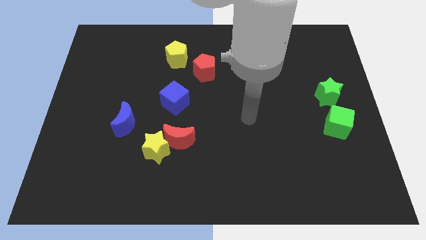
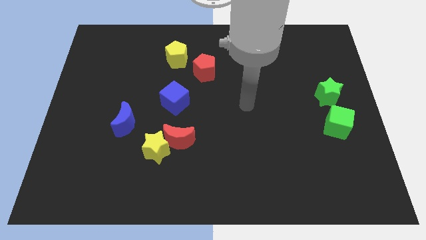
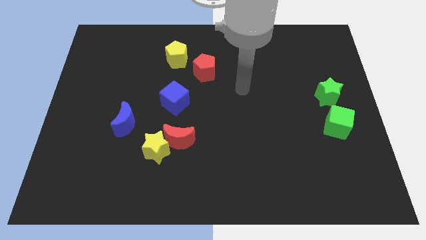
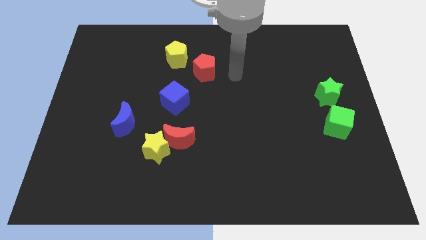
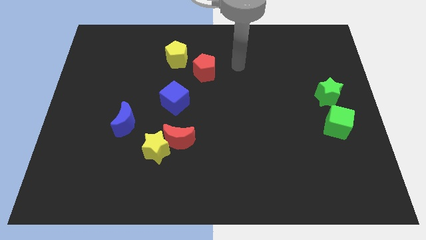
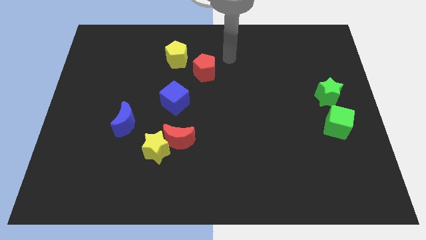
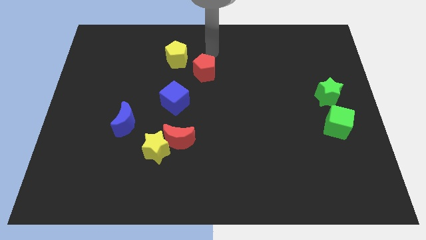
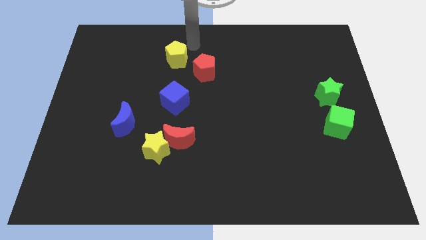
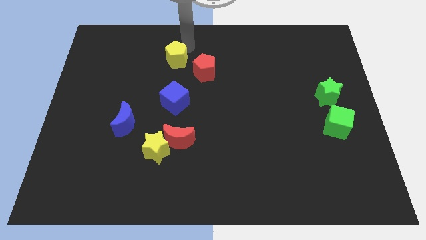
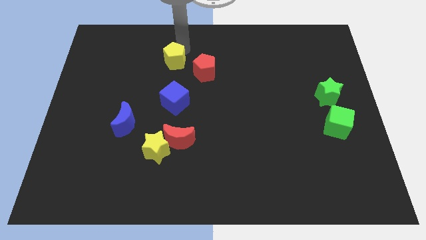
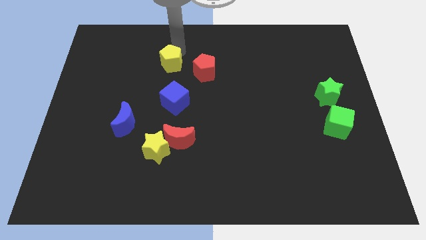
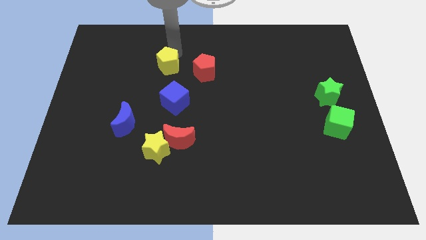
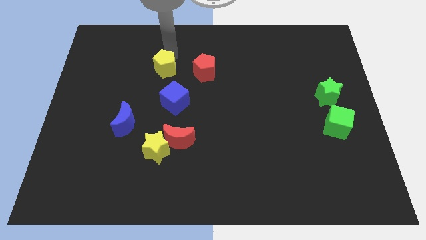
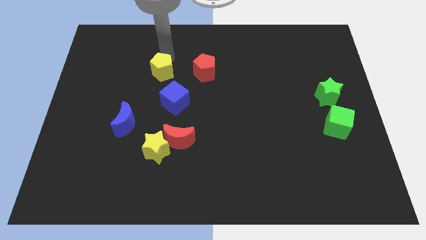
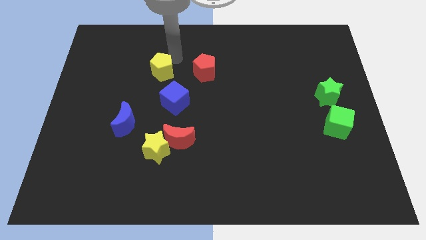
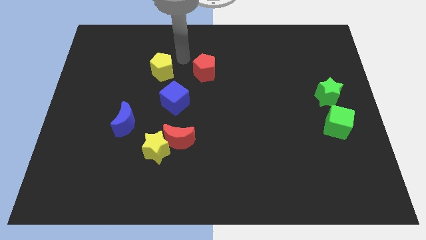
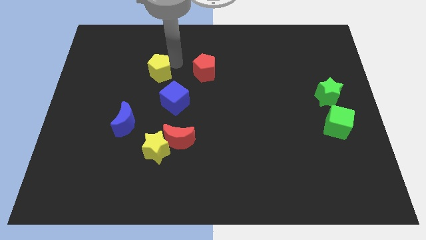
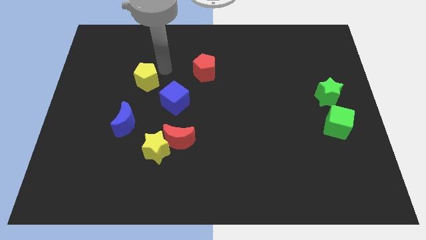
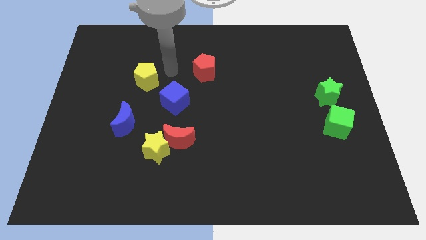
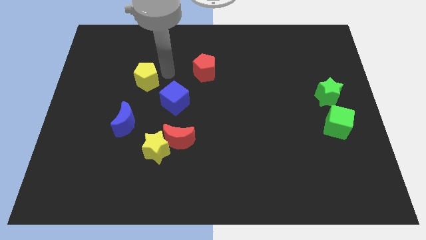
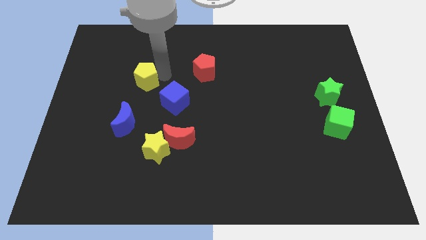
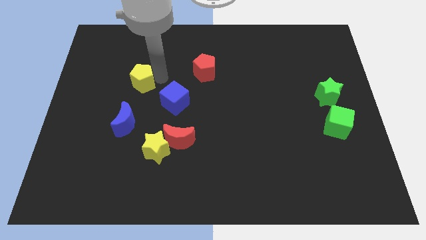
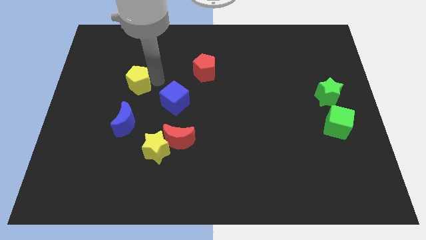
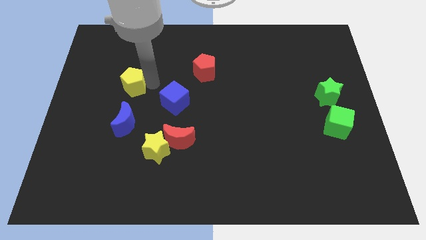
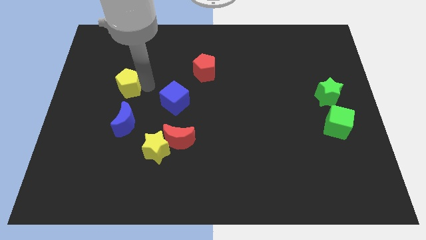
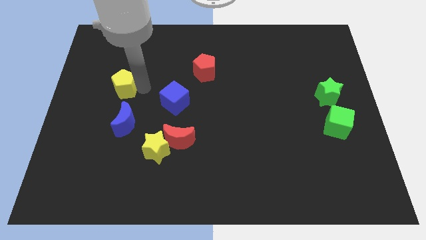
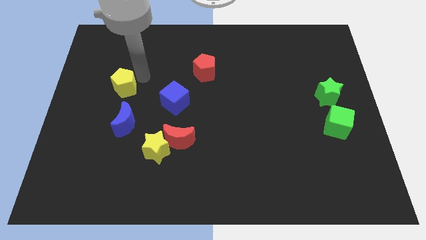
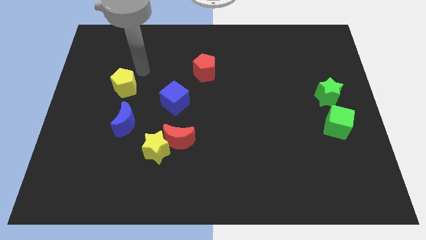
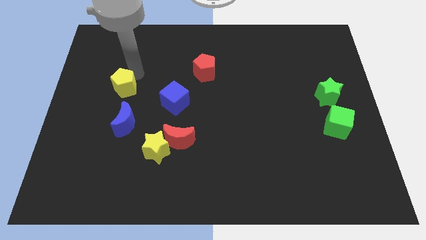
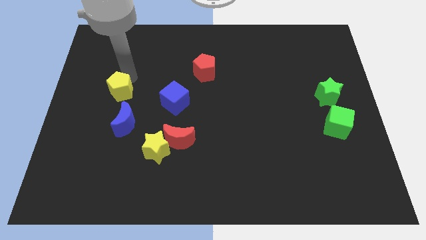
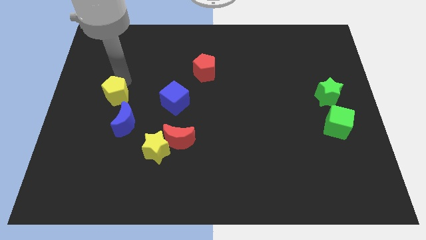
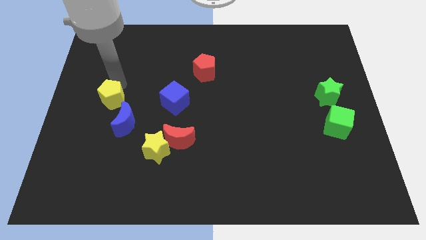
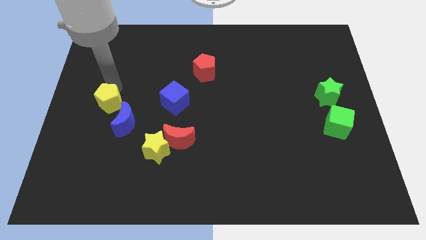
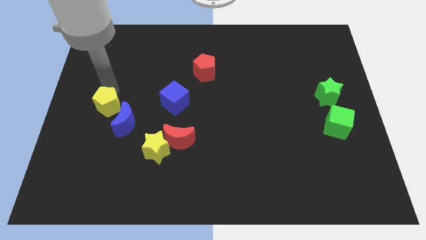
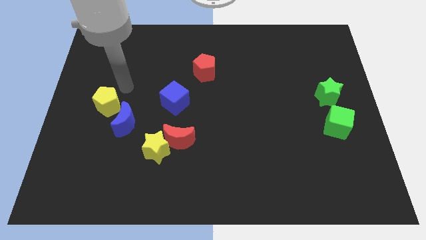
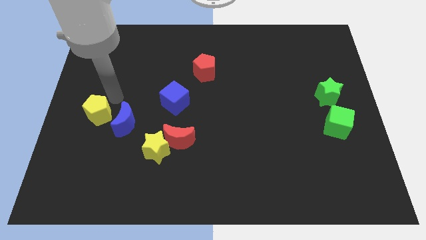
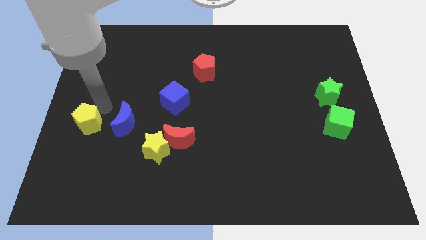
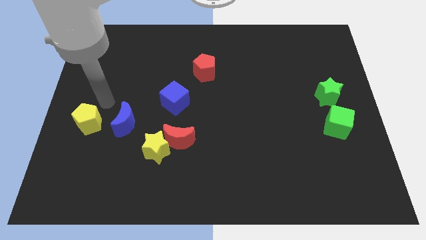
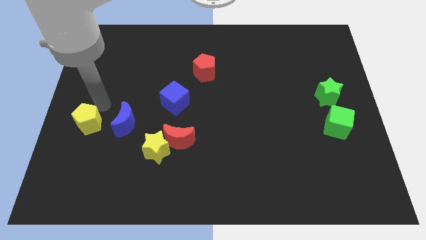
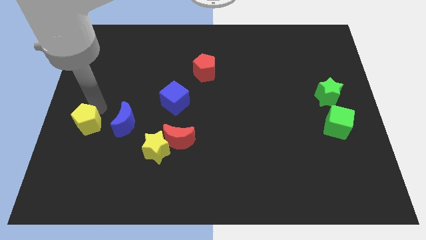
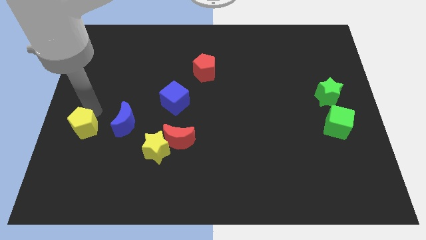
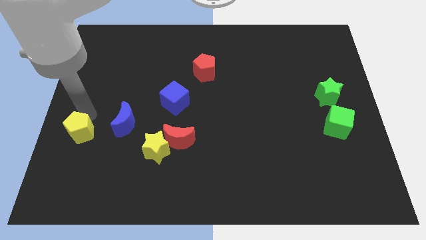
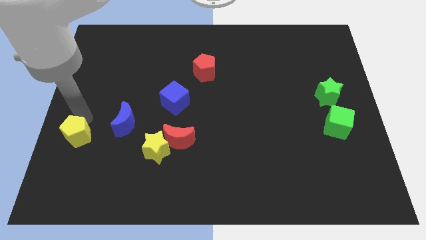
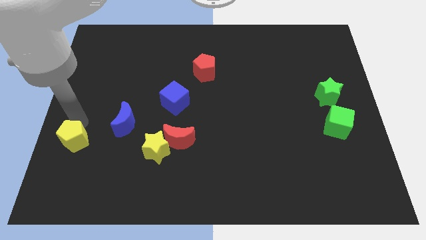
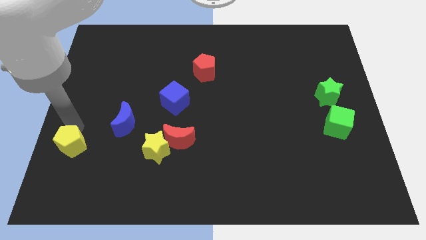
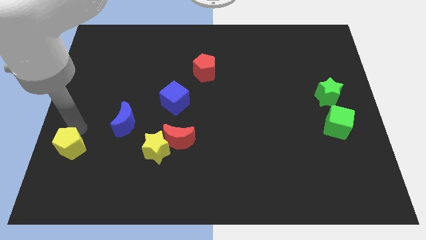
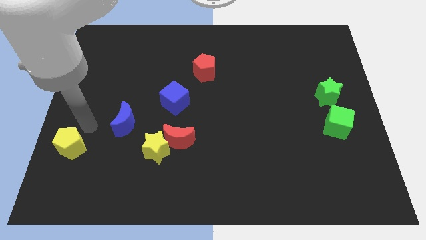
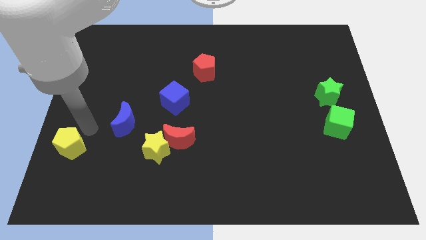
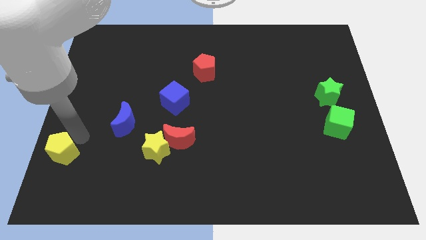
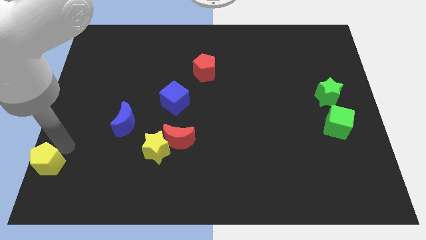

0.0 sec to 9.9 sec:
push the yellow pentagon to the bottom left of the board
